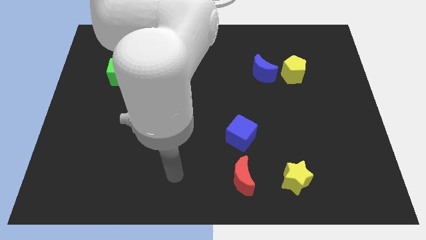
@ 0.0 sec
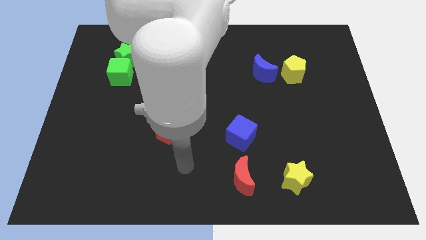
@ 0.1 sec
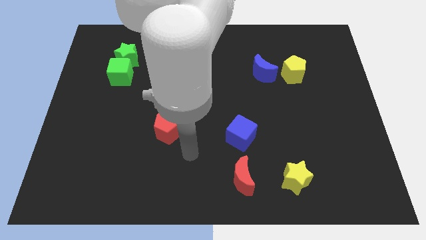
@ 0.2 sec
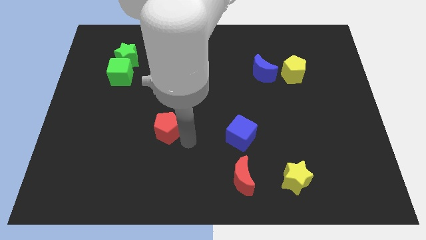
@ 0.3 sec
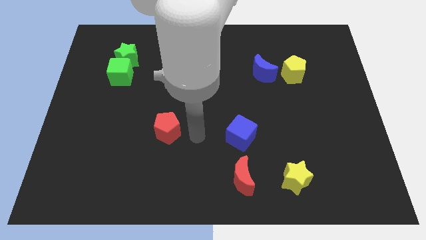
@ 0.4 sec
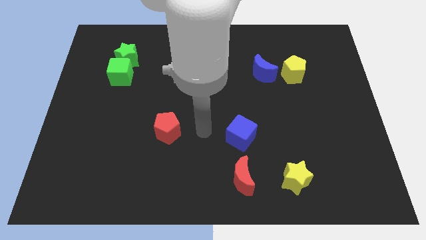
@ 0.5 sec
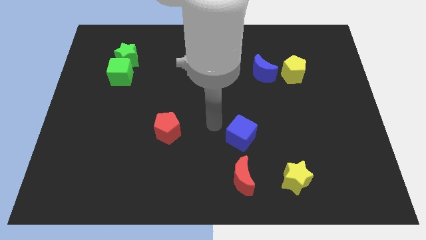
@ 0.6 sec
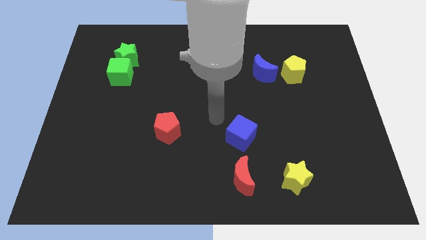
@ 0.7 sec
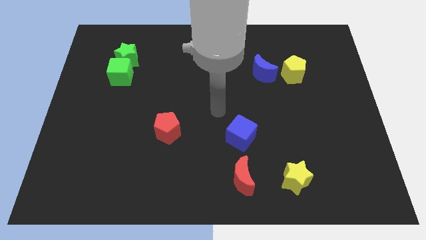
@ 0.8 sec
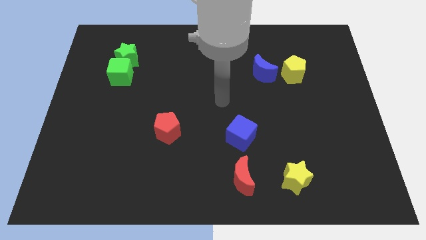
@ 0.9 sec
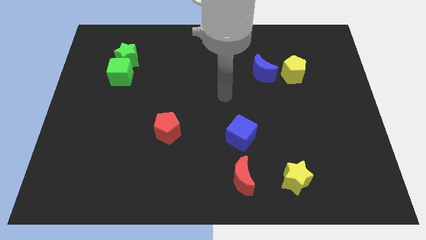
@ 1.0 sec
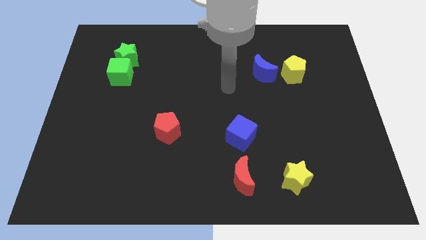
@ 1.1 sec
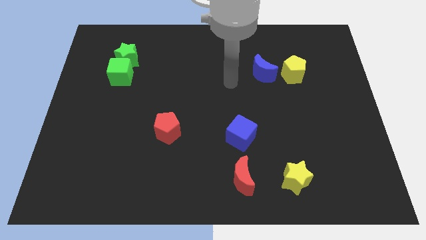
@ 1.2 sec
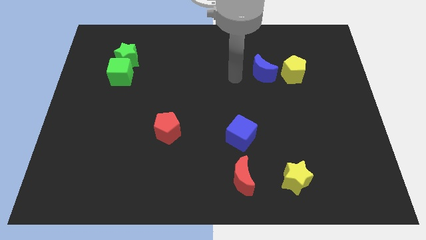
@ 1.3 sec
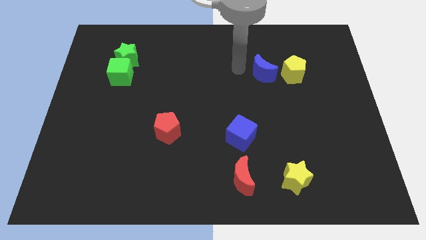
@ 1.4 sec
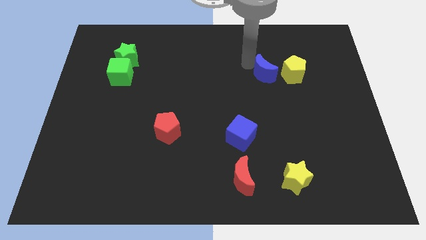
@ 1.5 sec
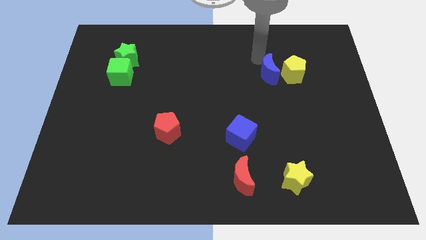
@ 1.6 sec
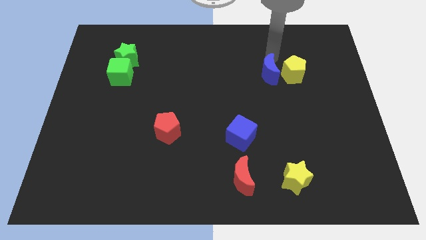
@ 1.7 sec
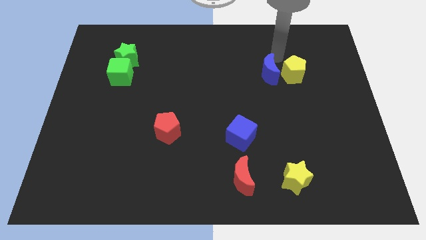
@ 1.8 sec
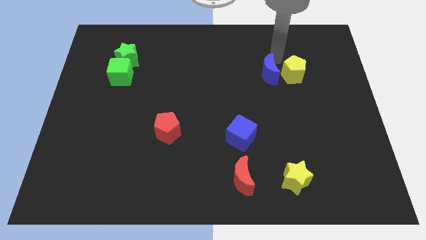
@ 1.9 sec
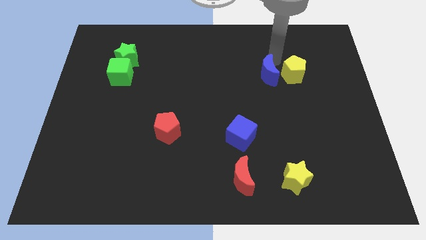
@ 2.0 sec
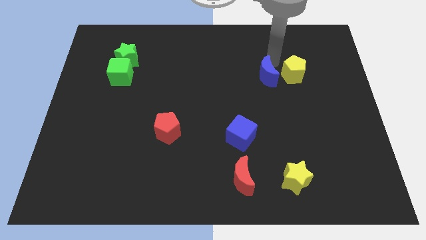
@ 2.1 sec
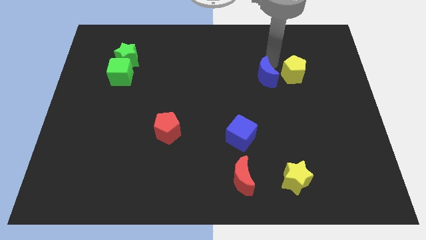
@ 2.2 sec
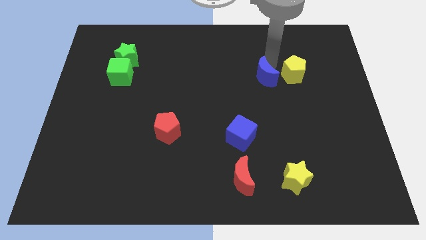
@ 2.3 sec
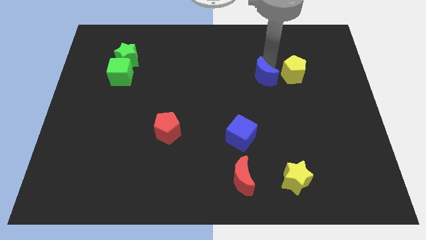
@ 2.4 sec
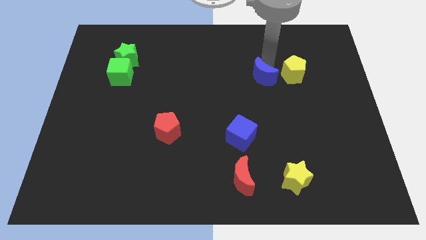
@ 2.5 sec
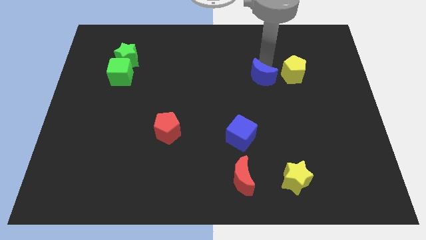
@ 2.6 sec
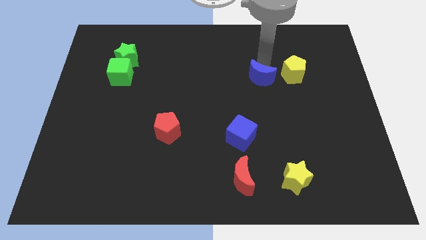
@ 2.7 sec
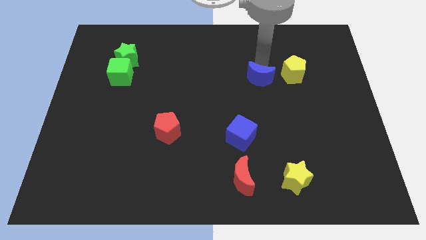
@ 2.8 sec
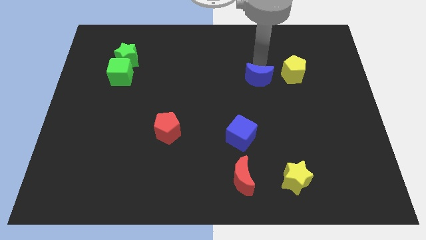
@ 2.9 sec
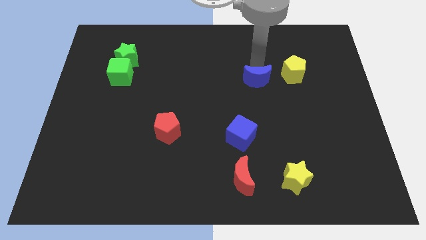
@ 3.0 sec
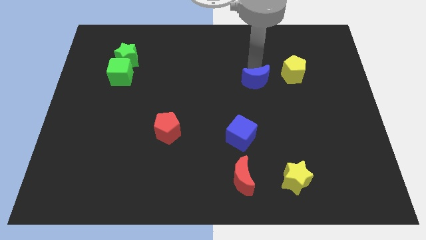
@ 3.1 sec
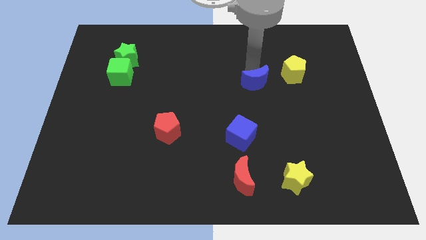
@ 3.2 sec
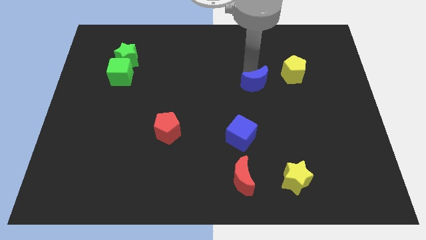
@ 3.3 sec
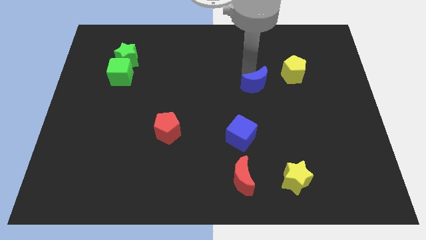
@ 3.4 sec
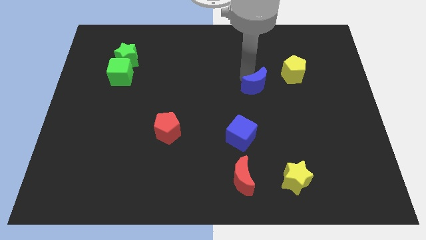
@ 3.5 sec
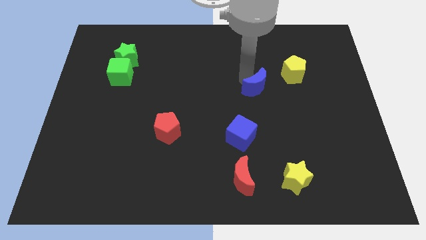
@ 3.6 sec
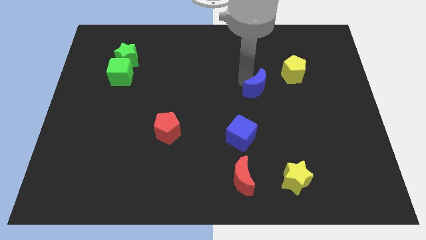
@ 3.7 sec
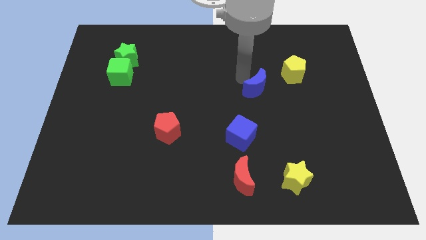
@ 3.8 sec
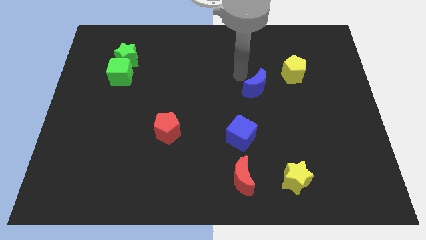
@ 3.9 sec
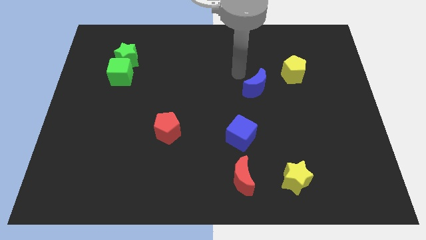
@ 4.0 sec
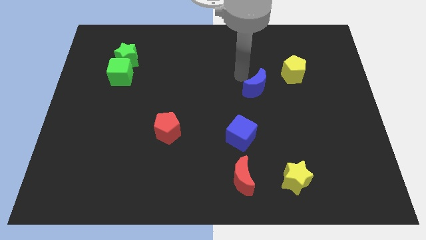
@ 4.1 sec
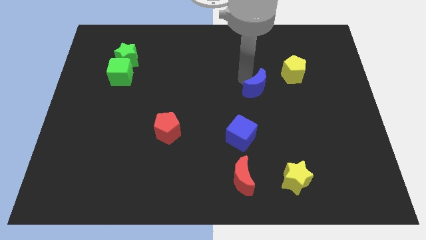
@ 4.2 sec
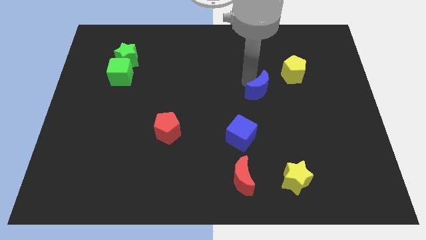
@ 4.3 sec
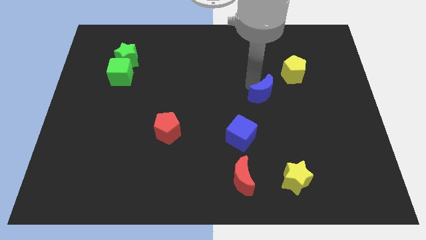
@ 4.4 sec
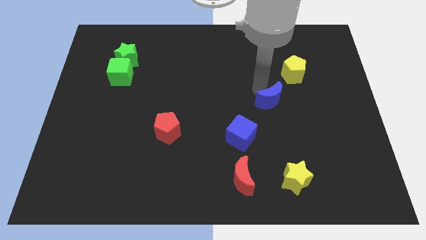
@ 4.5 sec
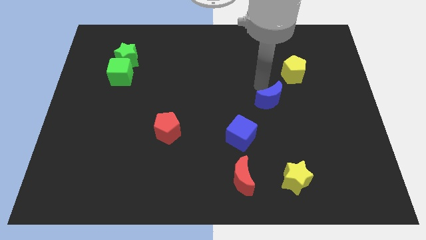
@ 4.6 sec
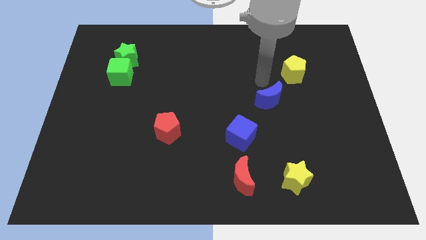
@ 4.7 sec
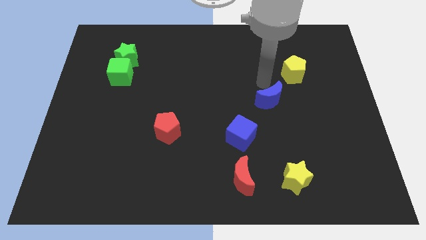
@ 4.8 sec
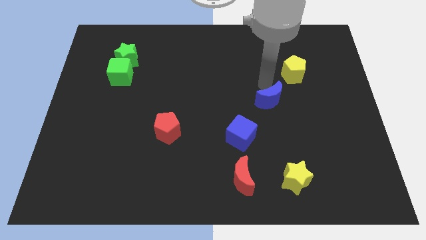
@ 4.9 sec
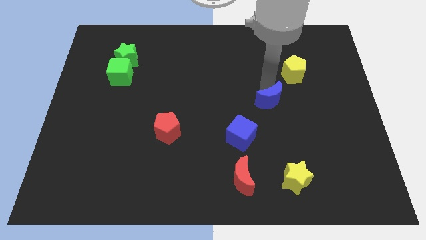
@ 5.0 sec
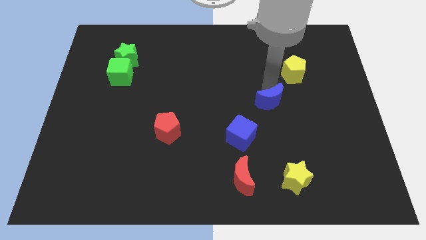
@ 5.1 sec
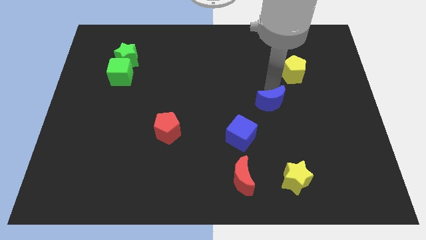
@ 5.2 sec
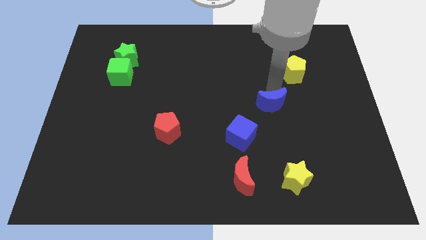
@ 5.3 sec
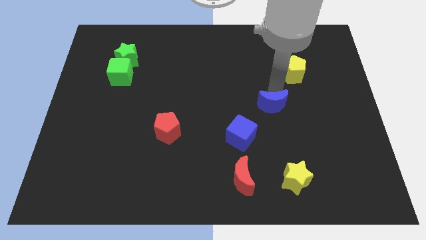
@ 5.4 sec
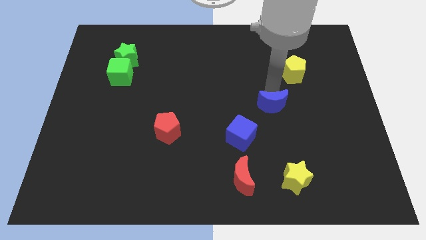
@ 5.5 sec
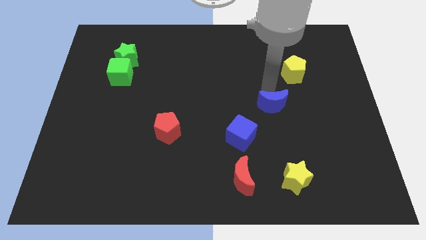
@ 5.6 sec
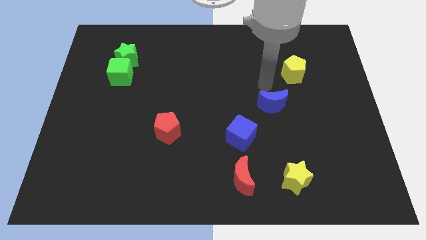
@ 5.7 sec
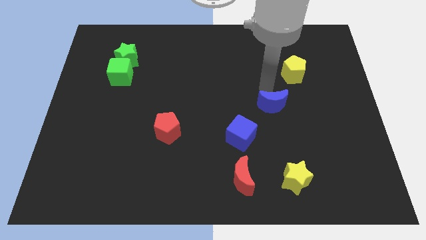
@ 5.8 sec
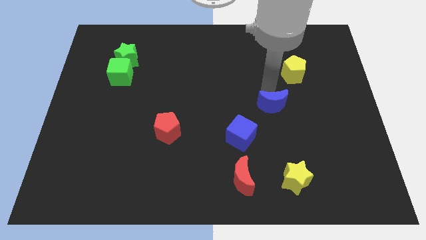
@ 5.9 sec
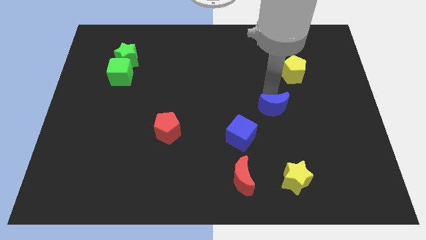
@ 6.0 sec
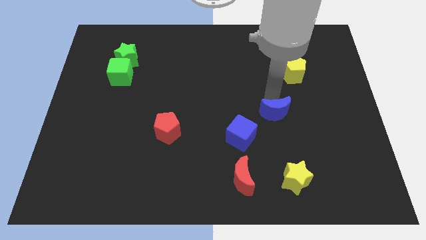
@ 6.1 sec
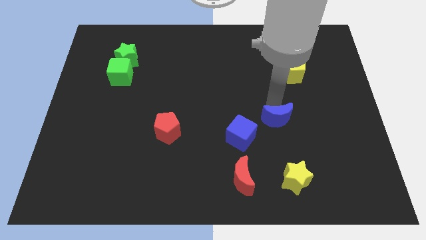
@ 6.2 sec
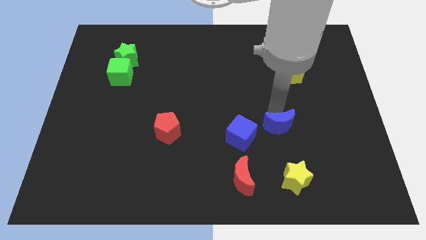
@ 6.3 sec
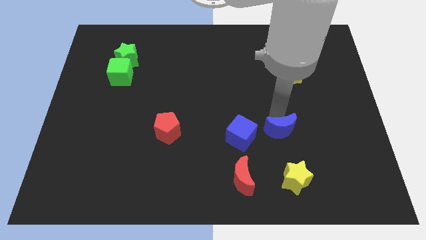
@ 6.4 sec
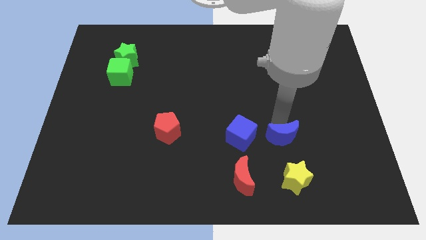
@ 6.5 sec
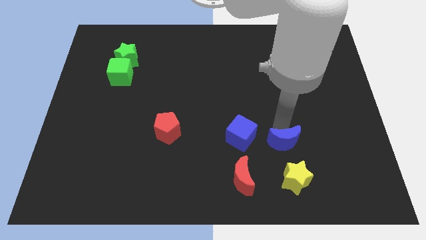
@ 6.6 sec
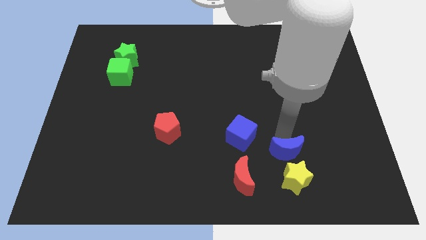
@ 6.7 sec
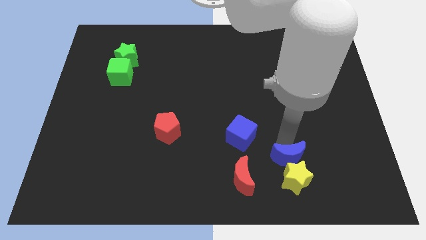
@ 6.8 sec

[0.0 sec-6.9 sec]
put the blue moon to the yellow star
